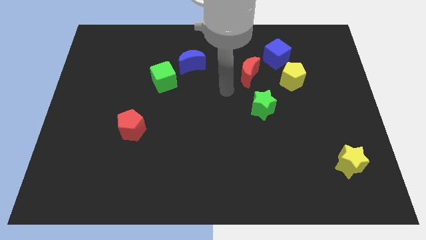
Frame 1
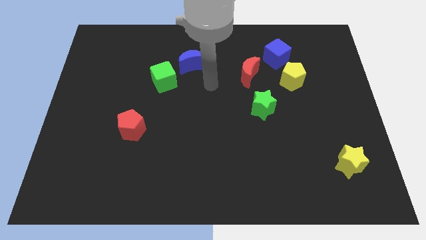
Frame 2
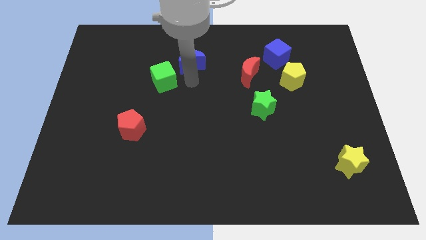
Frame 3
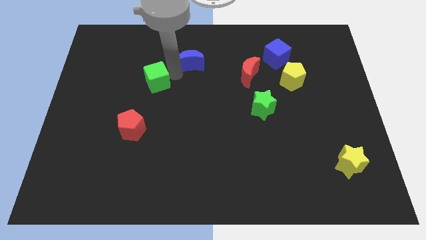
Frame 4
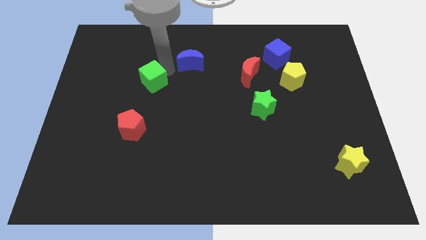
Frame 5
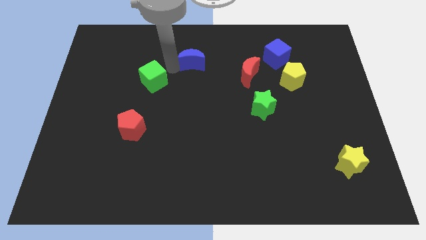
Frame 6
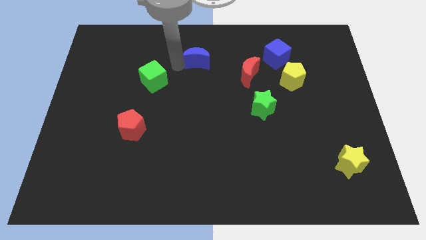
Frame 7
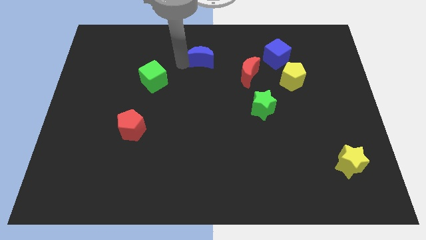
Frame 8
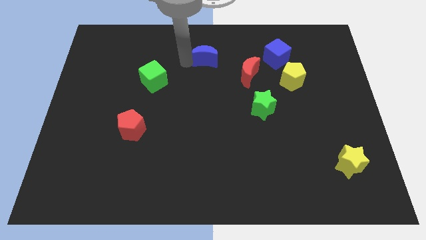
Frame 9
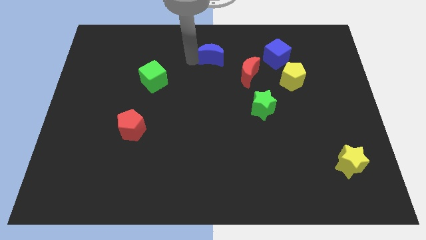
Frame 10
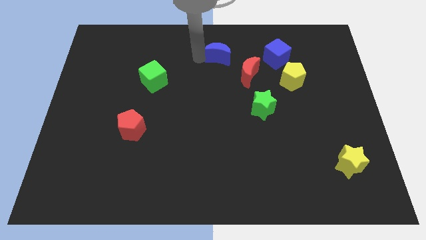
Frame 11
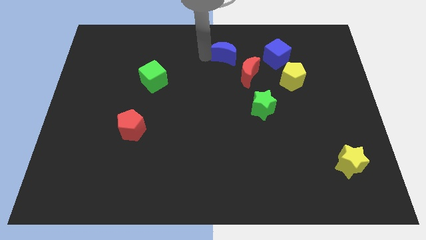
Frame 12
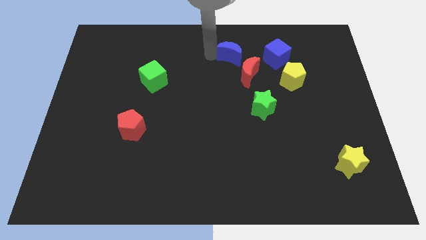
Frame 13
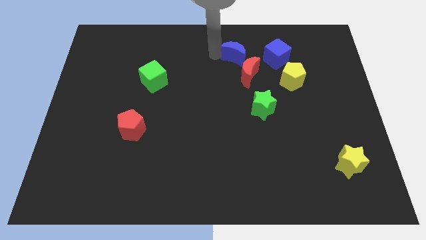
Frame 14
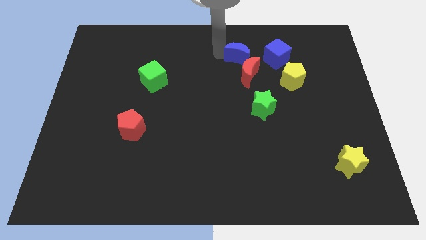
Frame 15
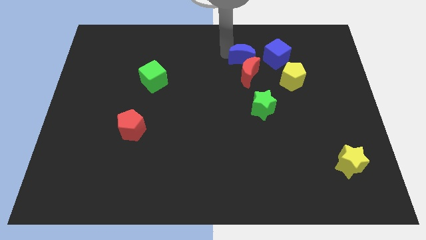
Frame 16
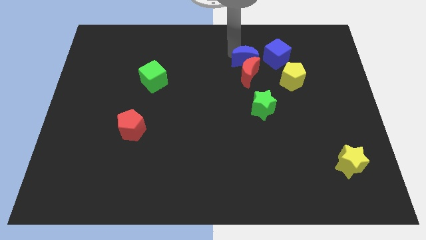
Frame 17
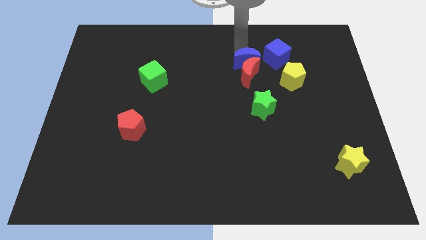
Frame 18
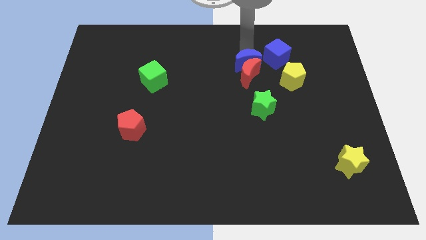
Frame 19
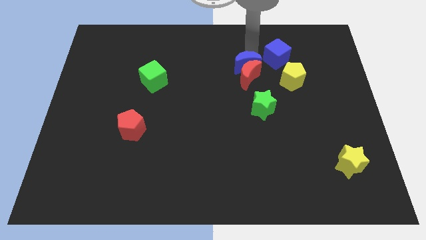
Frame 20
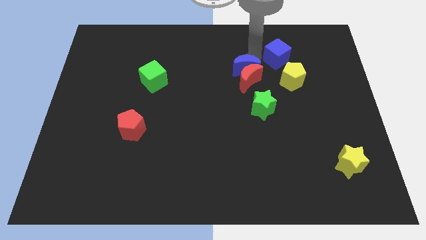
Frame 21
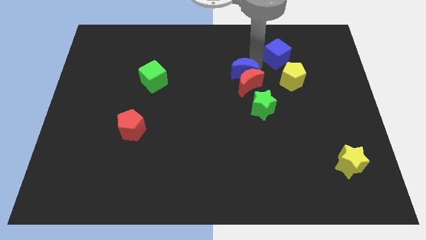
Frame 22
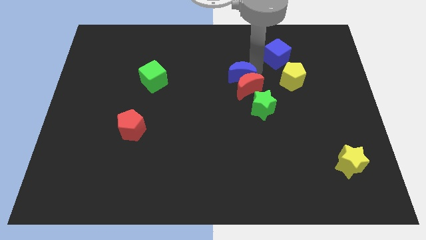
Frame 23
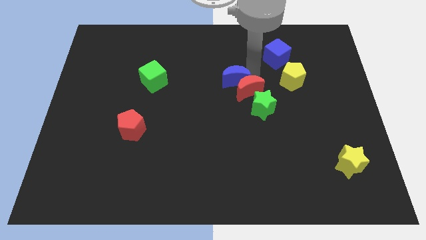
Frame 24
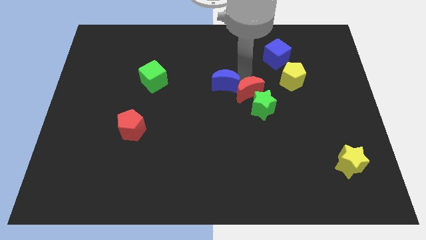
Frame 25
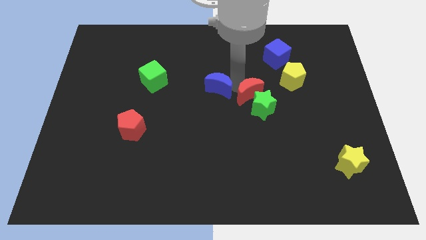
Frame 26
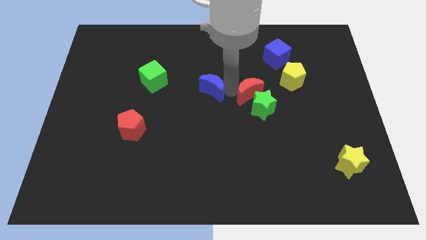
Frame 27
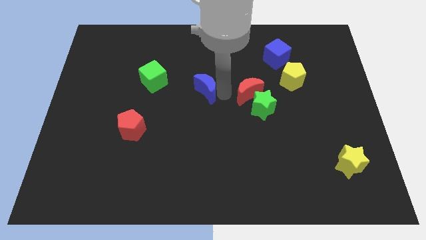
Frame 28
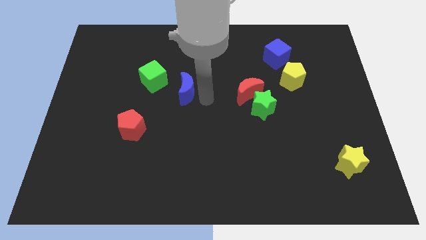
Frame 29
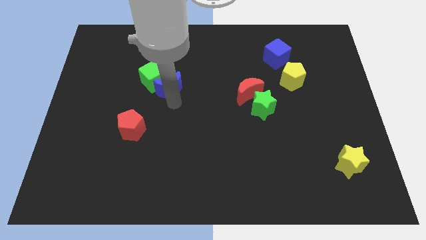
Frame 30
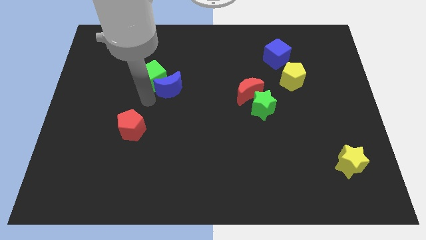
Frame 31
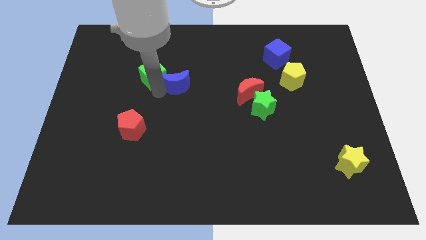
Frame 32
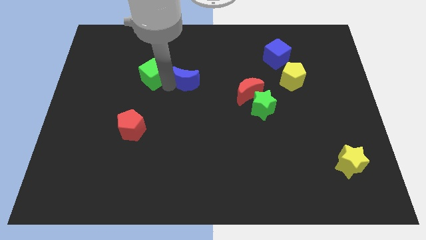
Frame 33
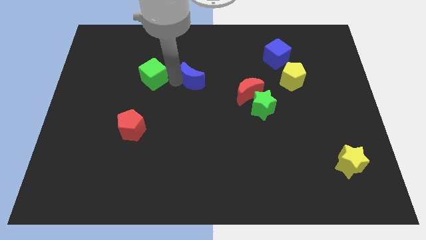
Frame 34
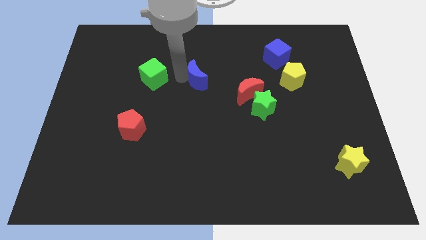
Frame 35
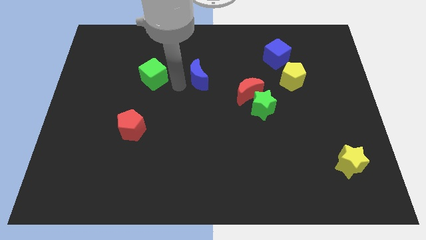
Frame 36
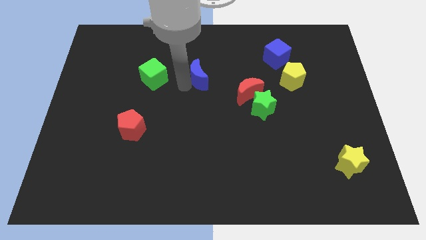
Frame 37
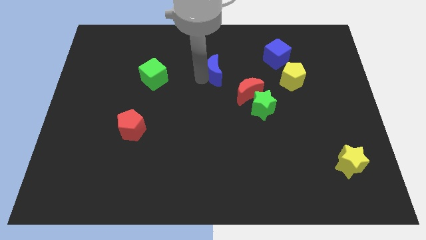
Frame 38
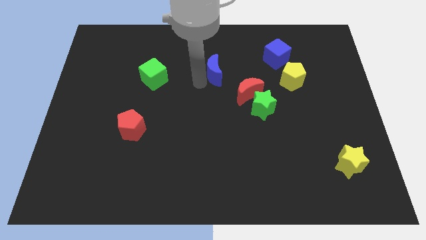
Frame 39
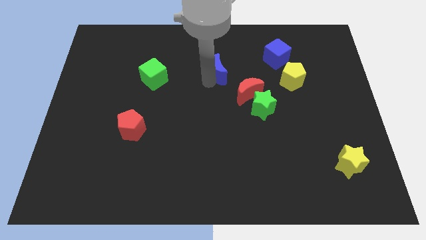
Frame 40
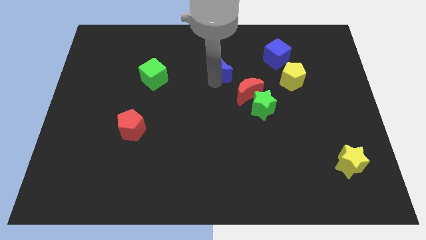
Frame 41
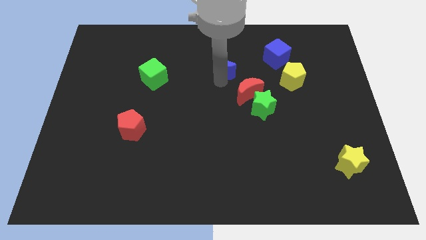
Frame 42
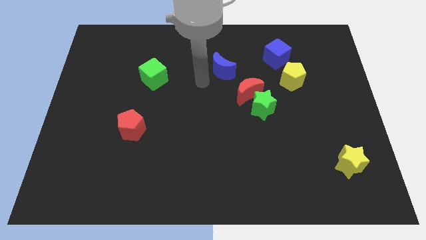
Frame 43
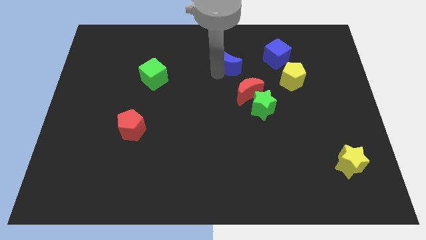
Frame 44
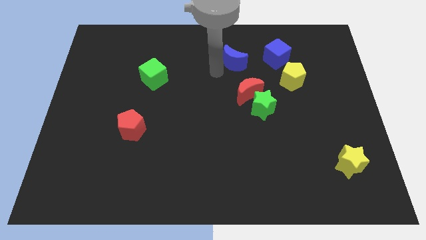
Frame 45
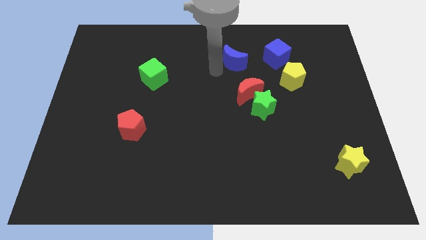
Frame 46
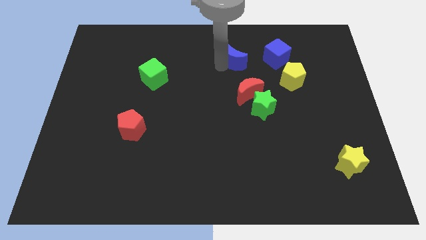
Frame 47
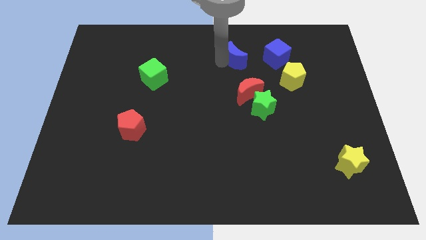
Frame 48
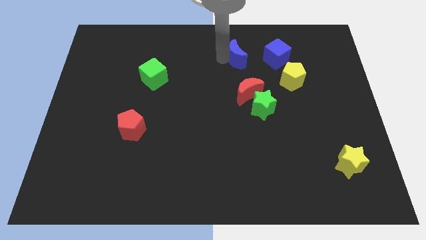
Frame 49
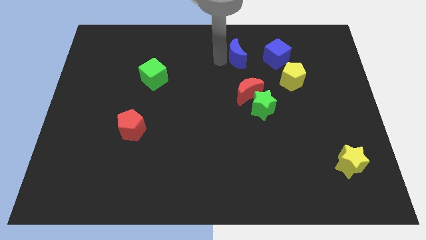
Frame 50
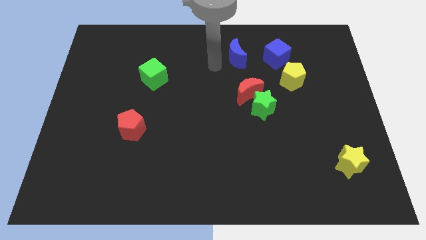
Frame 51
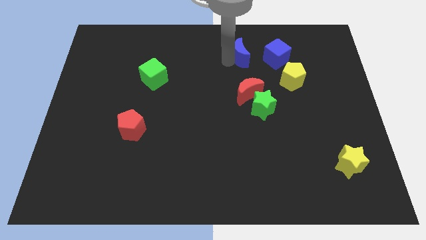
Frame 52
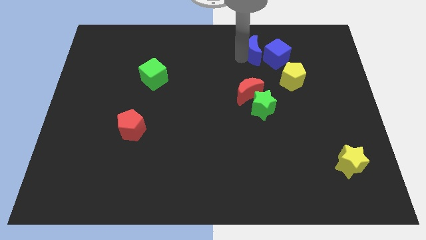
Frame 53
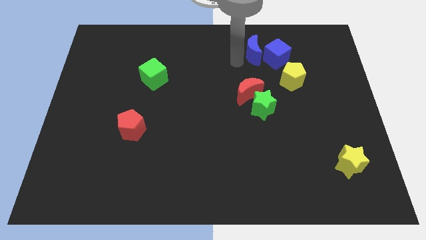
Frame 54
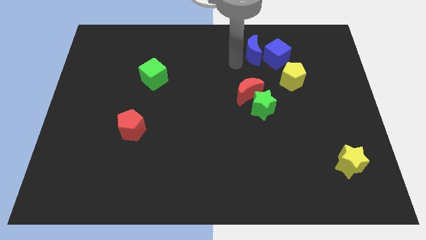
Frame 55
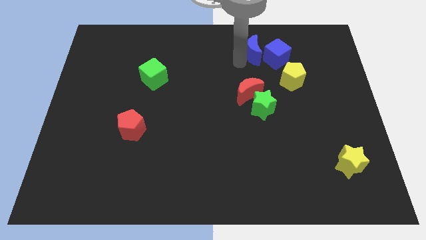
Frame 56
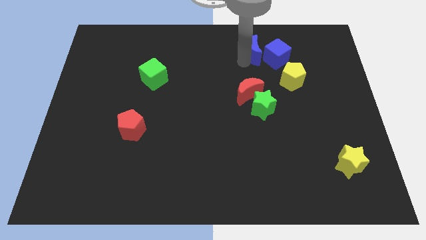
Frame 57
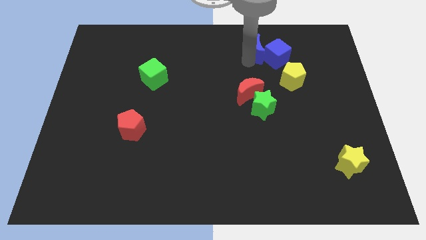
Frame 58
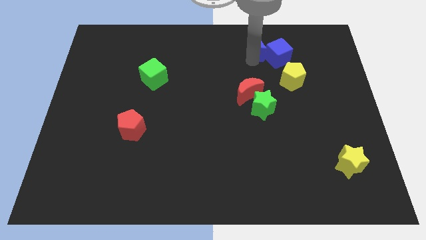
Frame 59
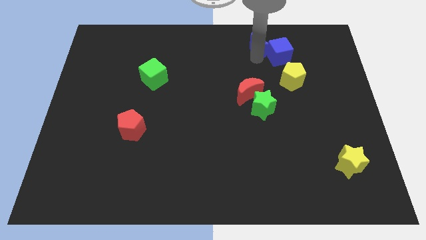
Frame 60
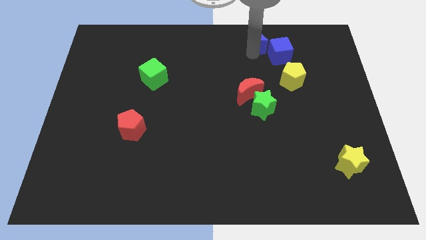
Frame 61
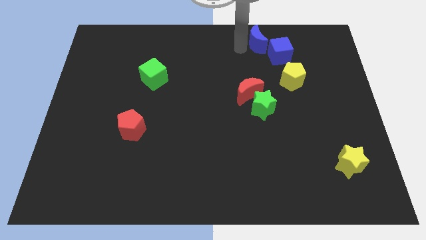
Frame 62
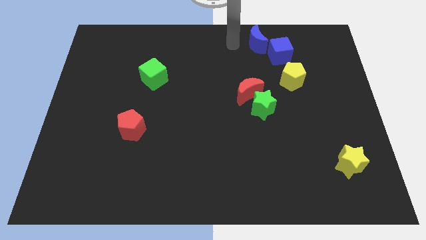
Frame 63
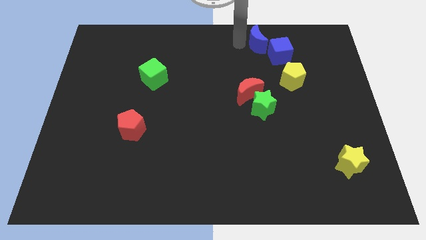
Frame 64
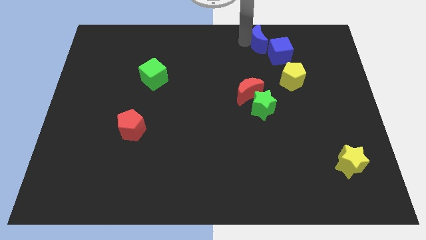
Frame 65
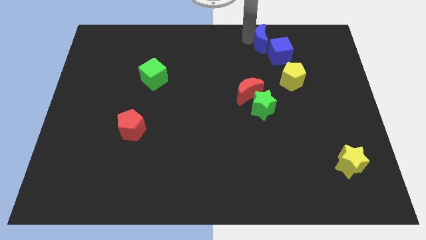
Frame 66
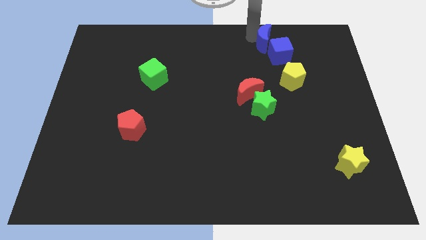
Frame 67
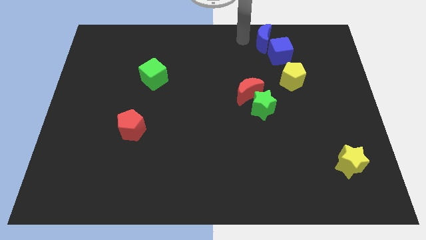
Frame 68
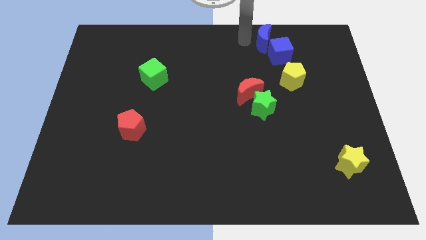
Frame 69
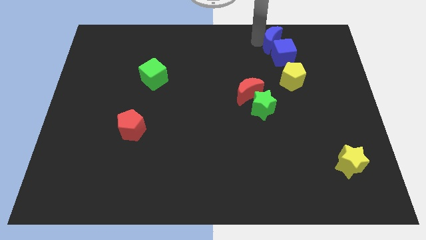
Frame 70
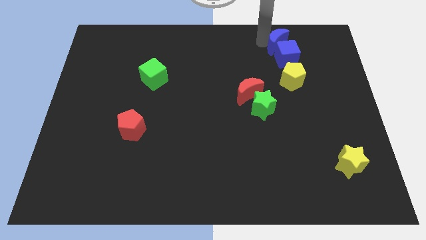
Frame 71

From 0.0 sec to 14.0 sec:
push the blue moon to the right

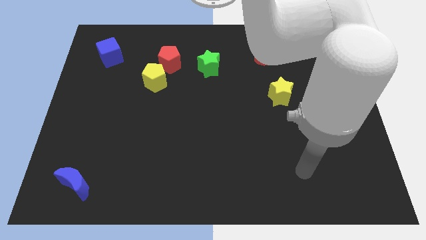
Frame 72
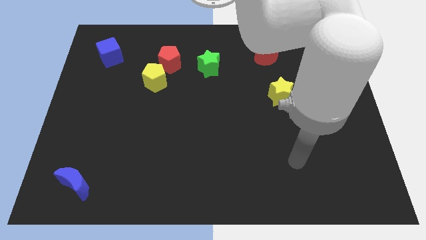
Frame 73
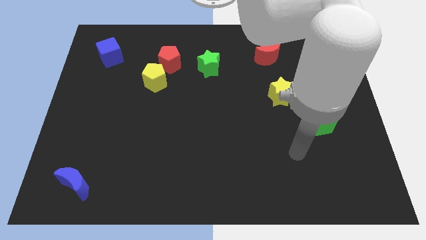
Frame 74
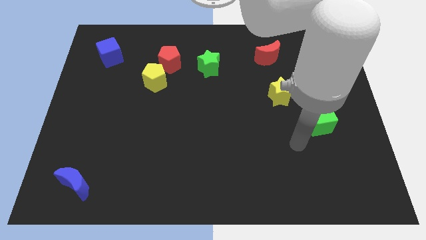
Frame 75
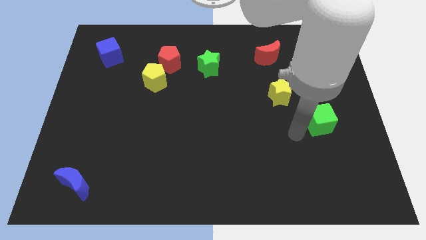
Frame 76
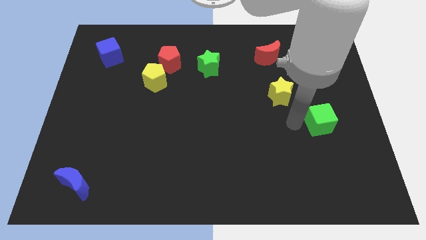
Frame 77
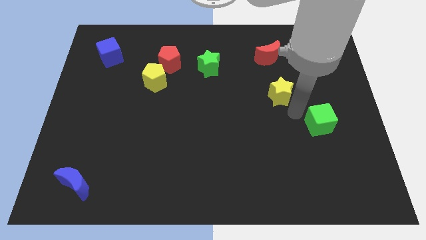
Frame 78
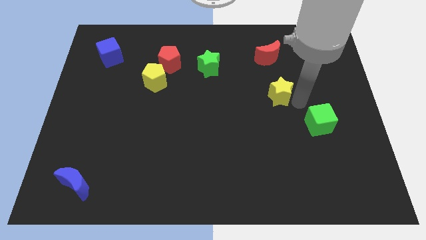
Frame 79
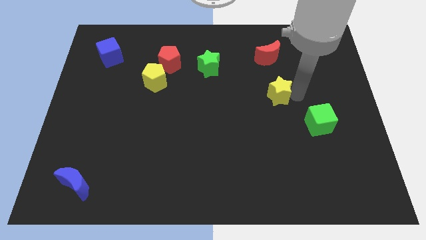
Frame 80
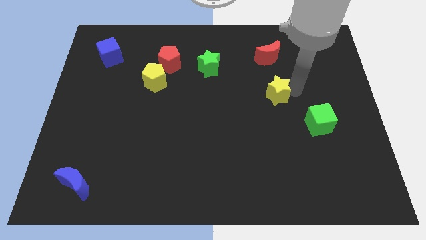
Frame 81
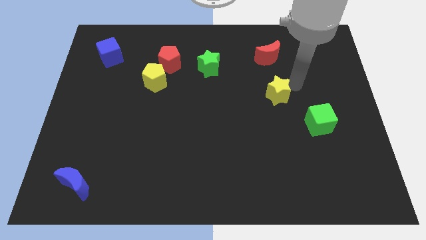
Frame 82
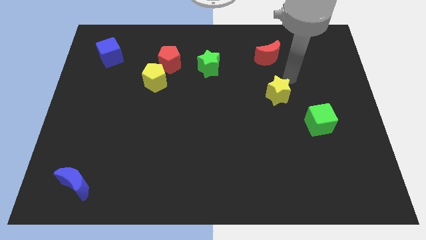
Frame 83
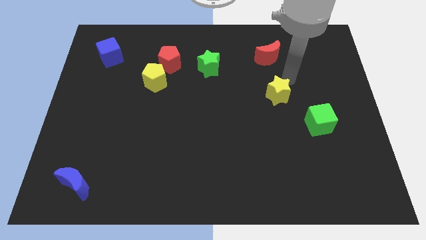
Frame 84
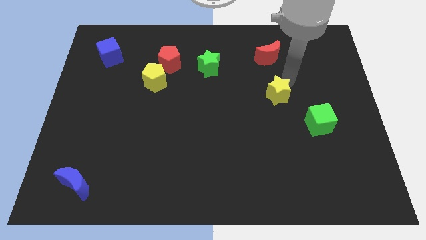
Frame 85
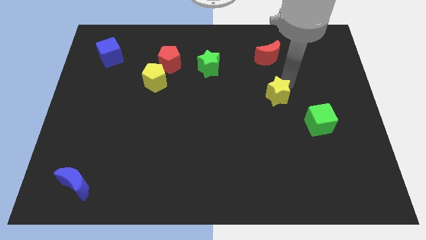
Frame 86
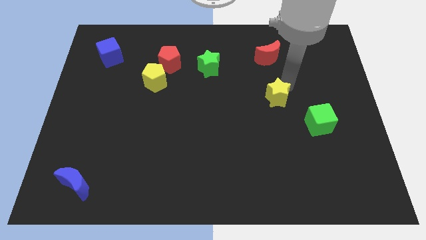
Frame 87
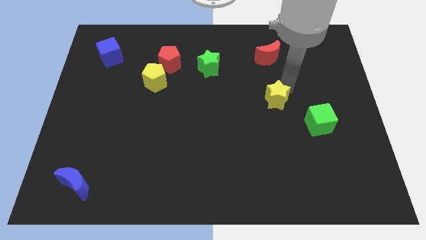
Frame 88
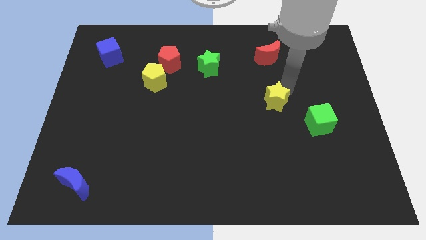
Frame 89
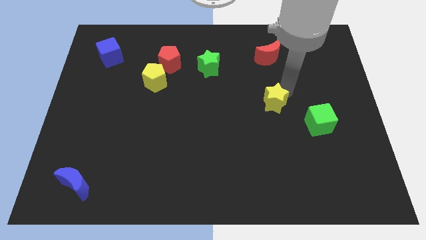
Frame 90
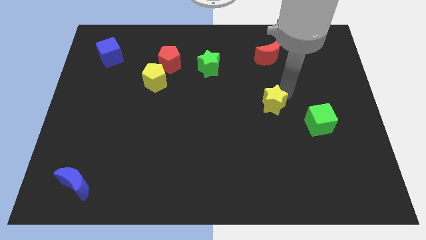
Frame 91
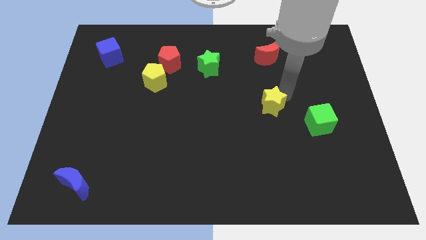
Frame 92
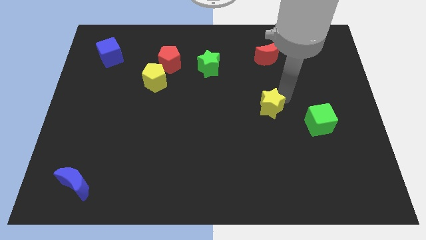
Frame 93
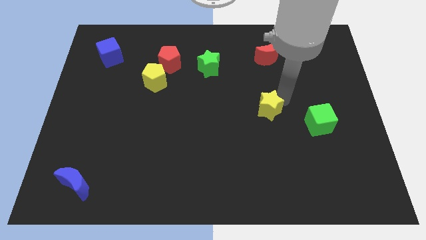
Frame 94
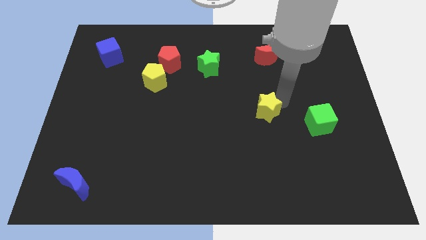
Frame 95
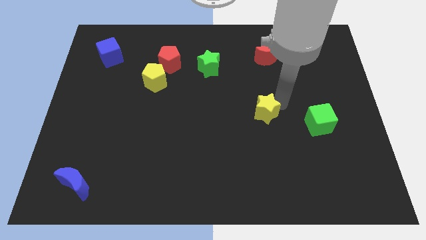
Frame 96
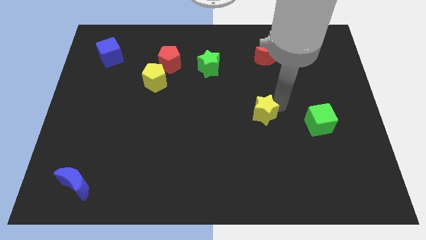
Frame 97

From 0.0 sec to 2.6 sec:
slide the yellow star downwards and left diagonally a bit
